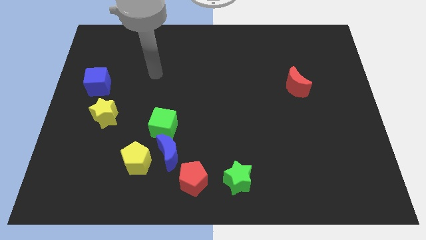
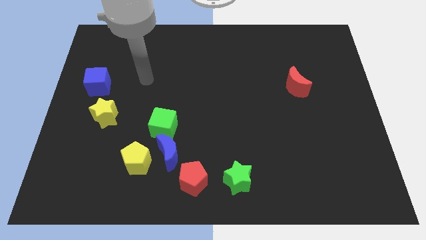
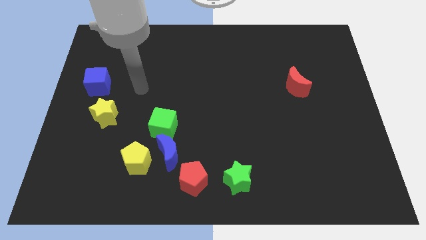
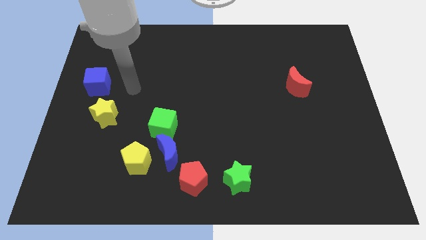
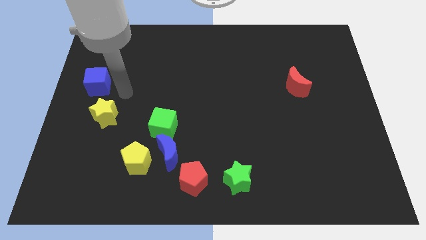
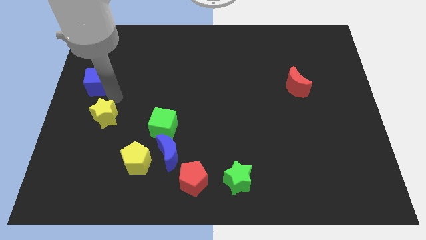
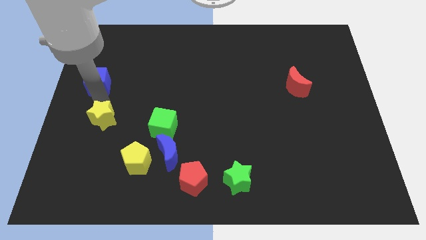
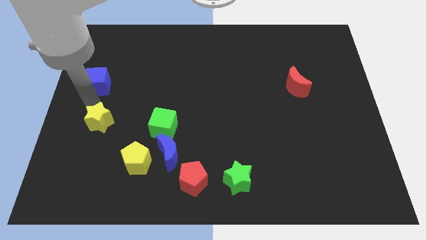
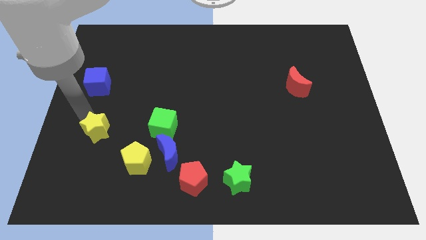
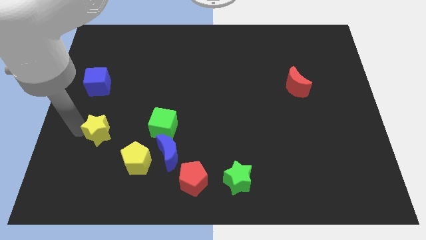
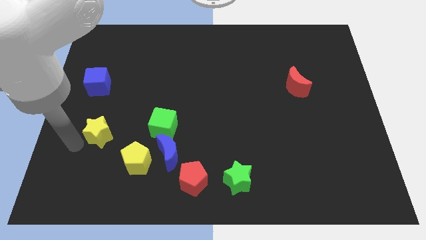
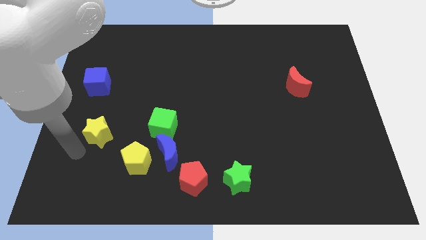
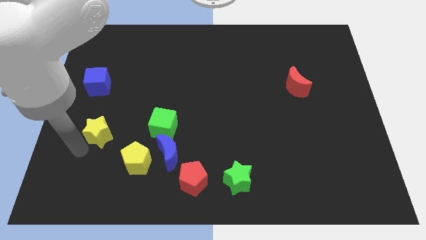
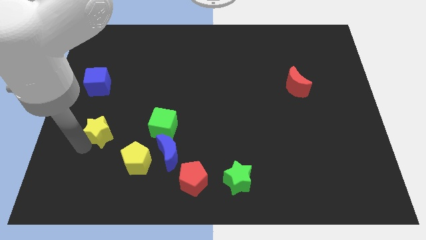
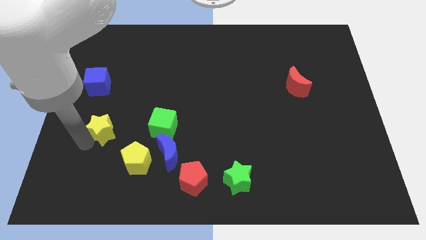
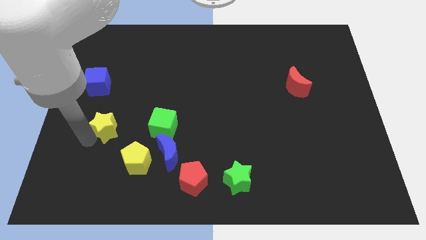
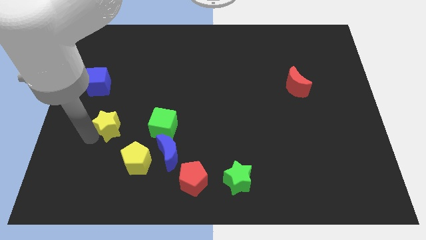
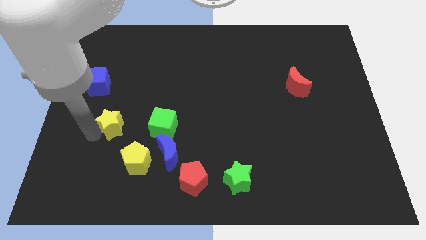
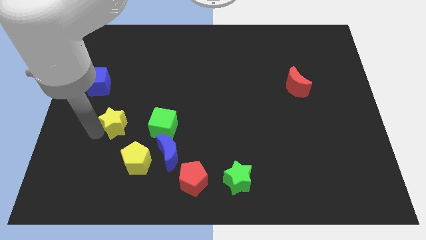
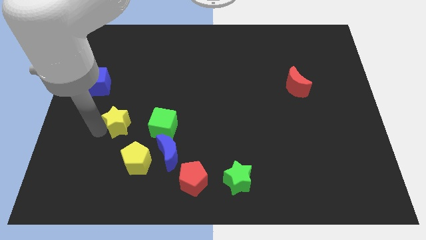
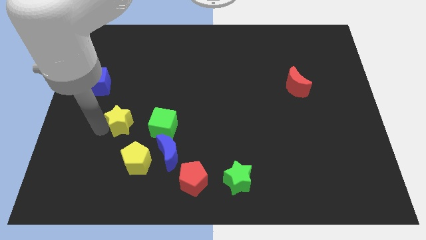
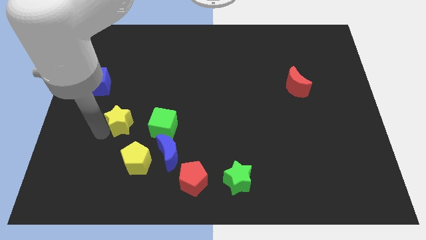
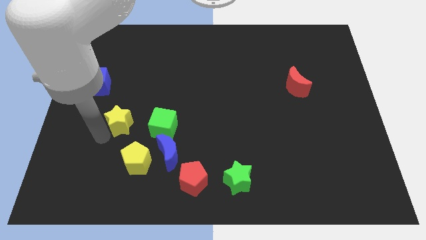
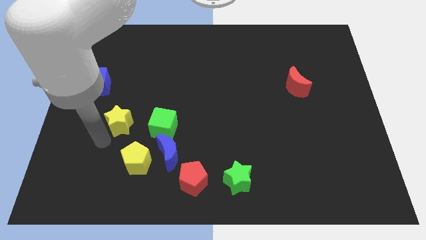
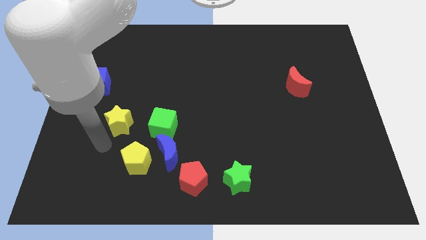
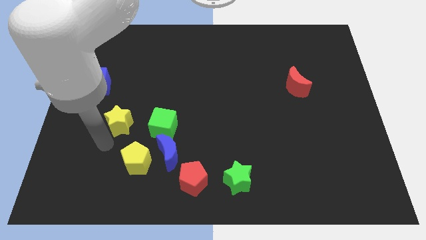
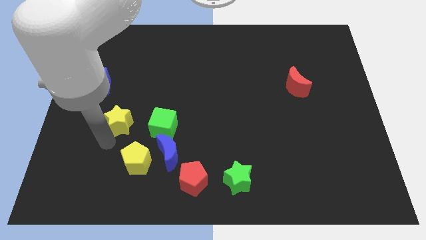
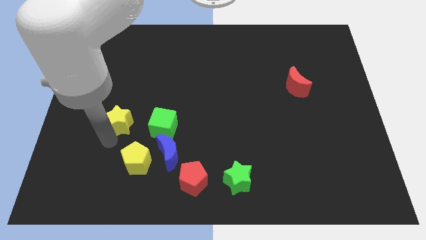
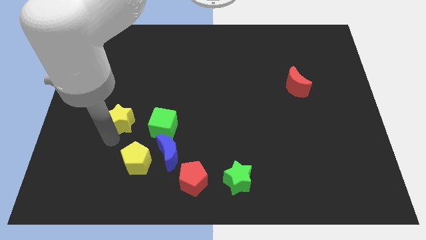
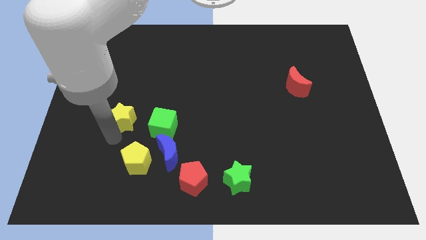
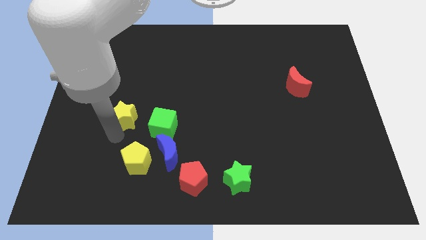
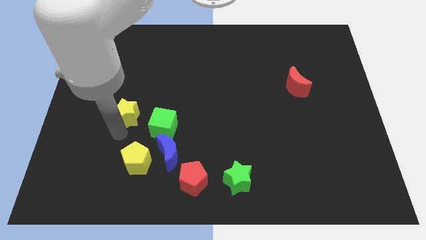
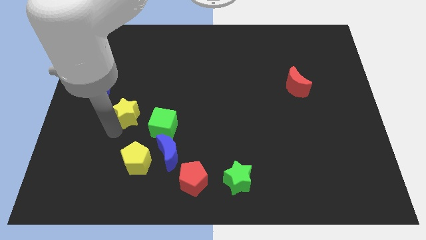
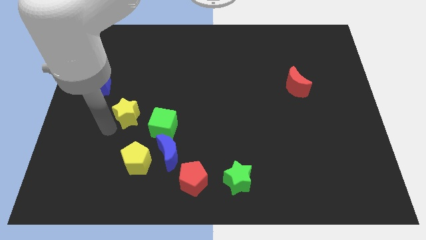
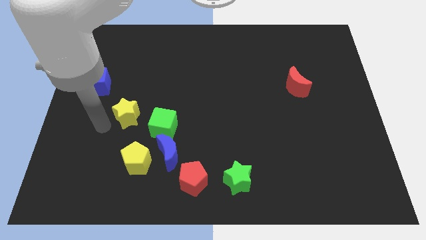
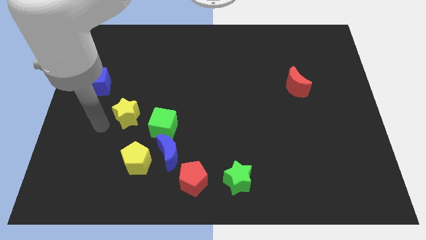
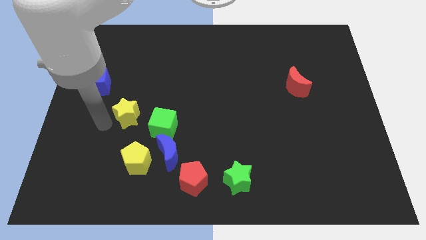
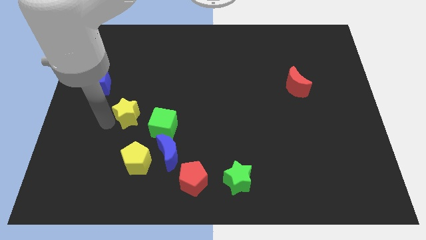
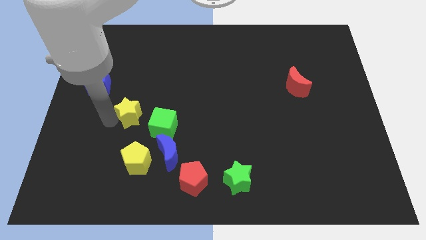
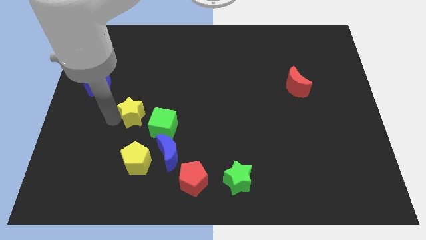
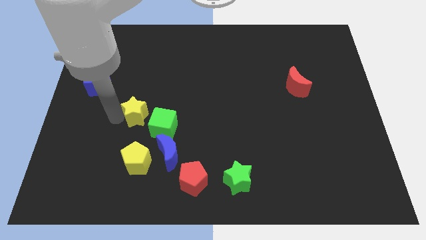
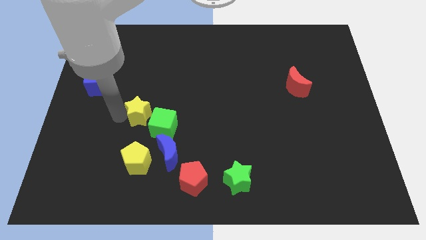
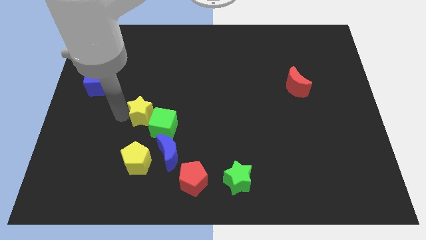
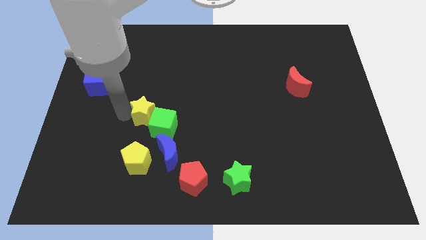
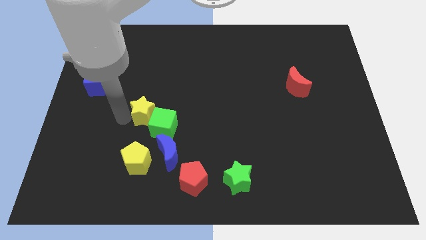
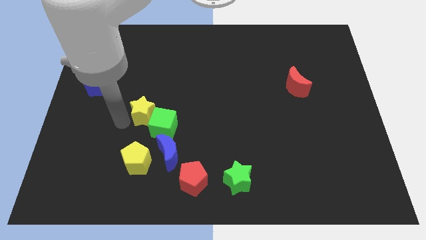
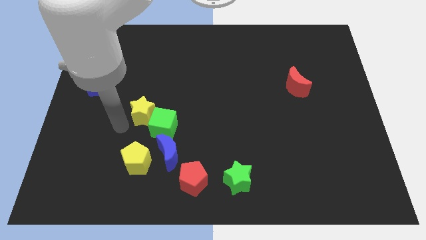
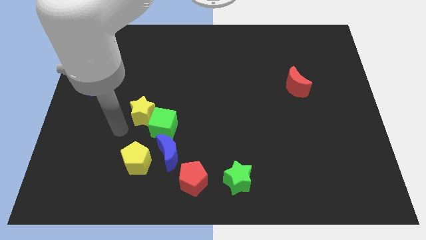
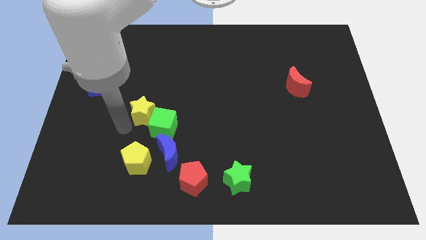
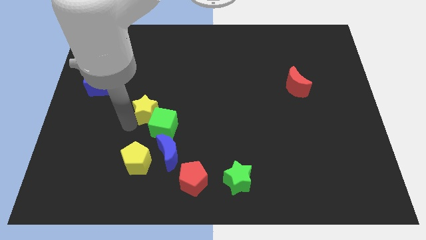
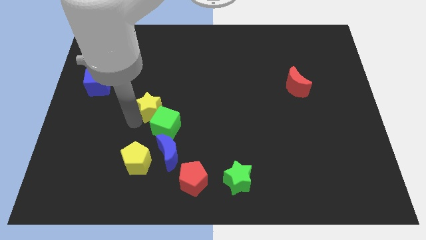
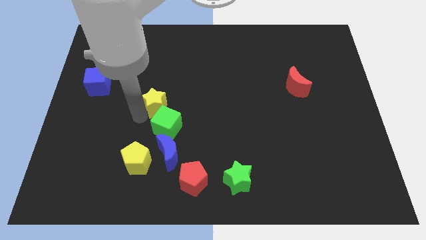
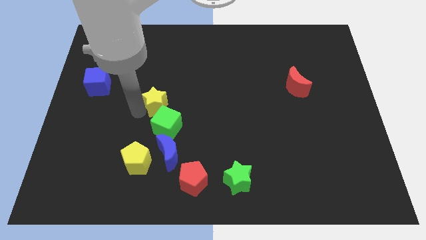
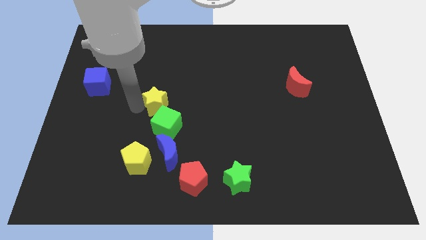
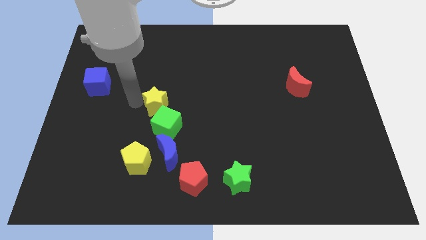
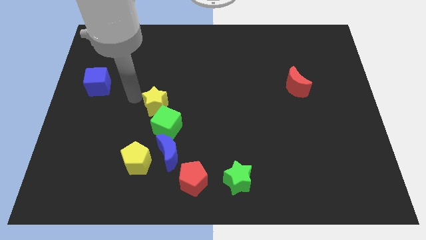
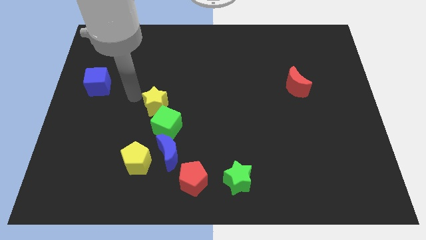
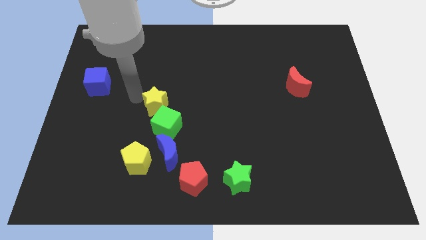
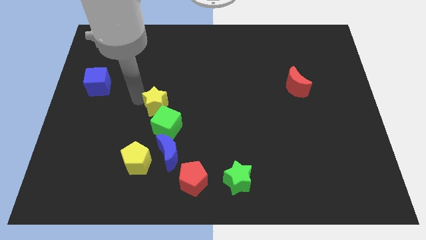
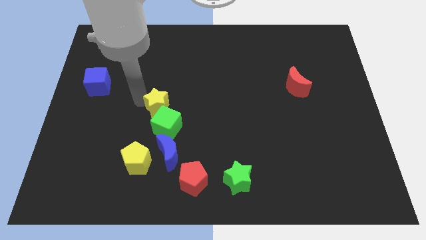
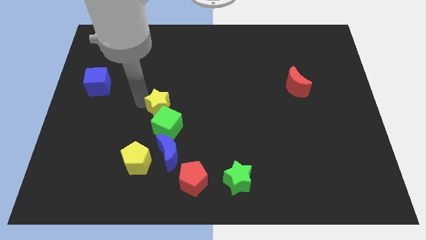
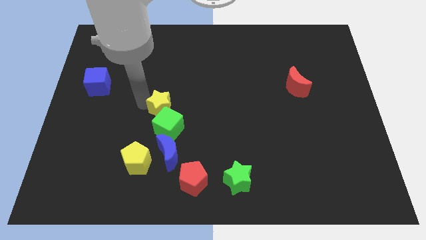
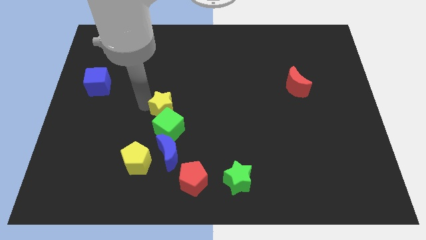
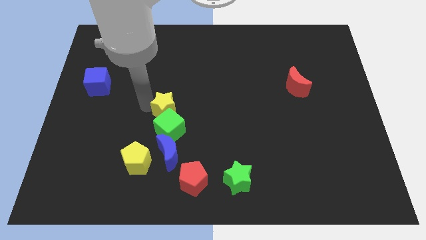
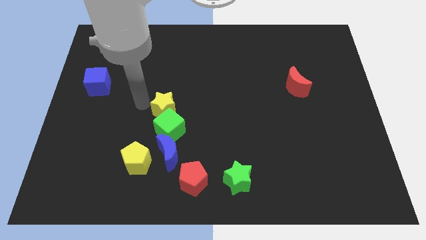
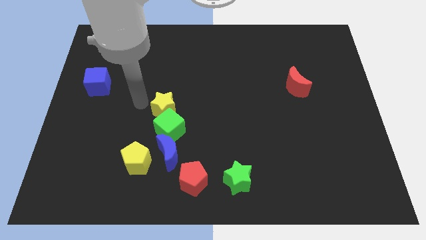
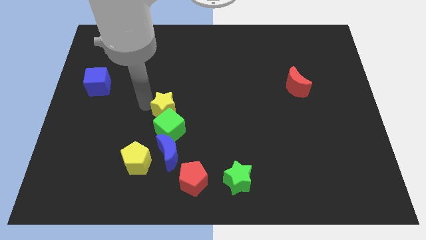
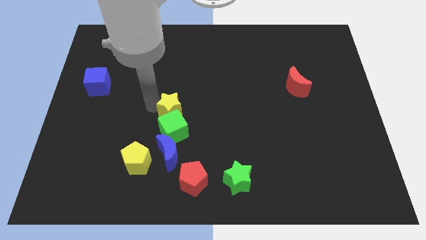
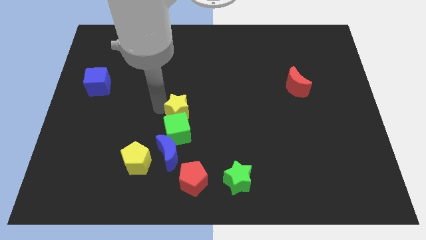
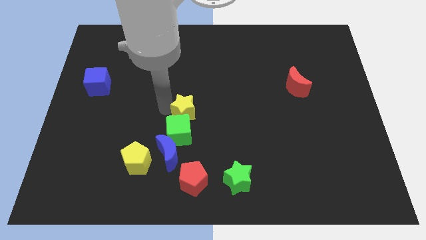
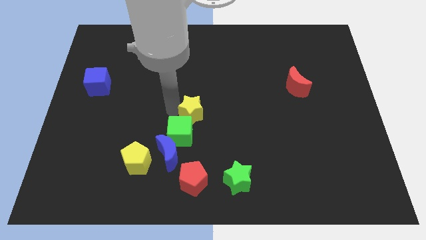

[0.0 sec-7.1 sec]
slide the yellow star to the right

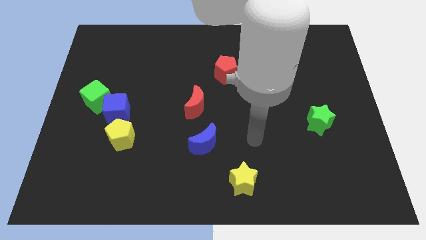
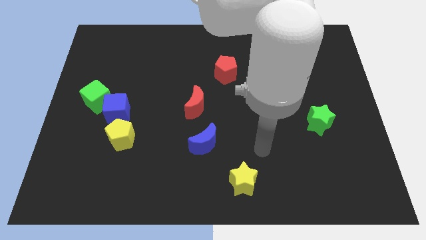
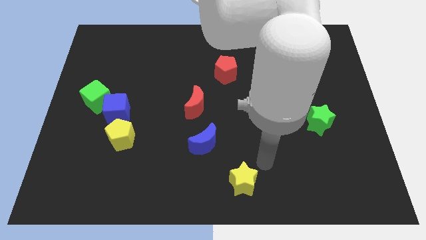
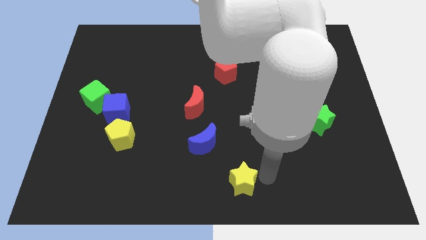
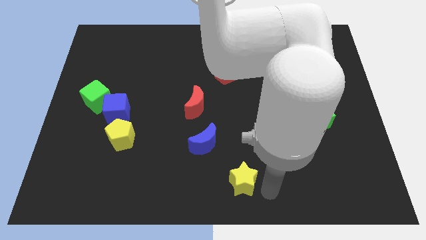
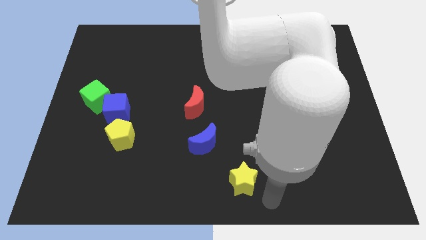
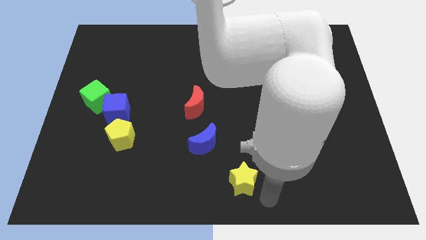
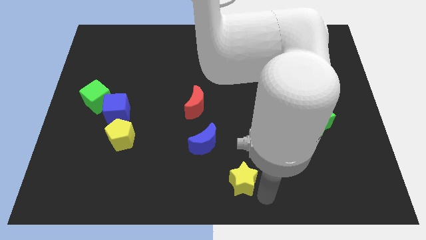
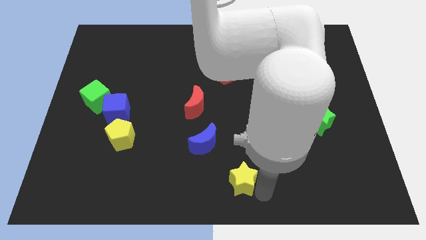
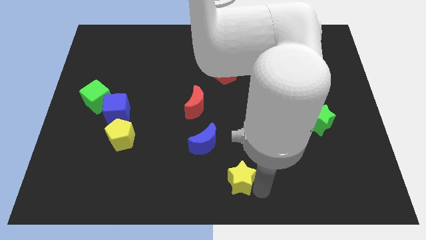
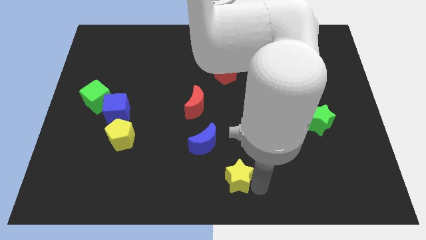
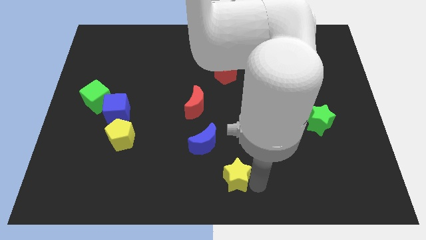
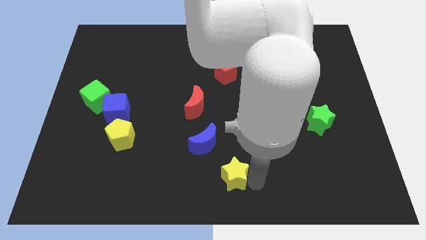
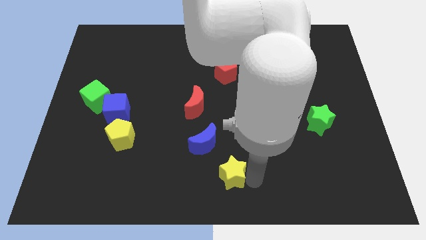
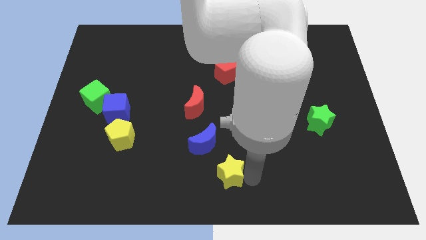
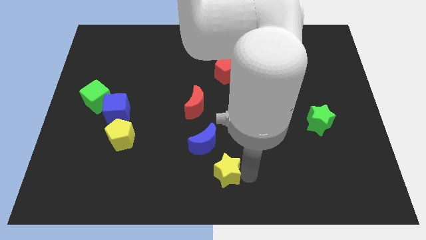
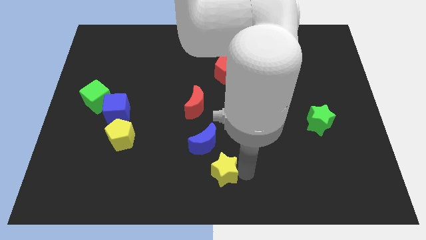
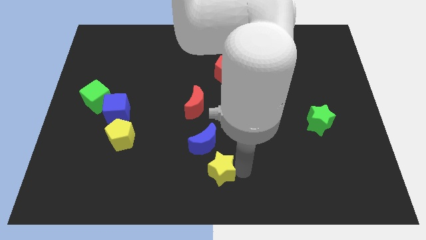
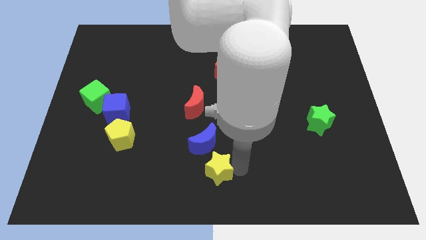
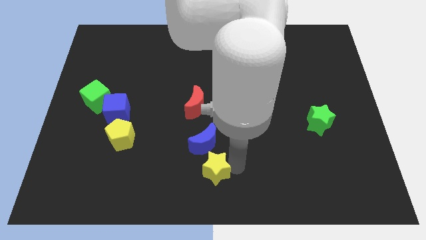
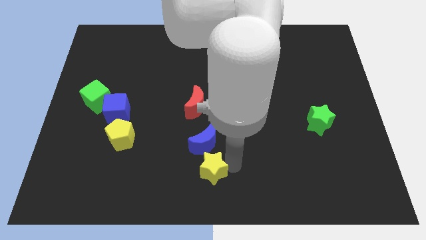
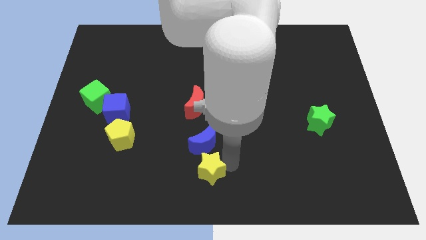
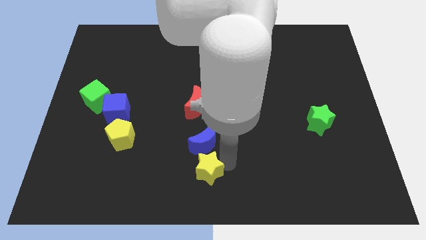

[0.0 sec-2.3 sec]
slightly slide the yellow star up and left
